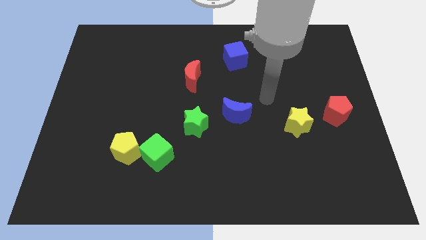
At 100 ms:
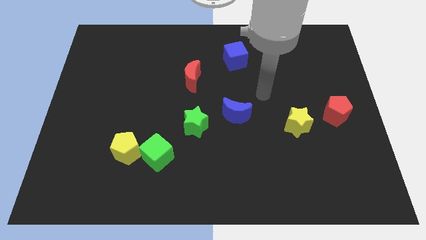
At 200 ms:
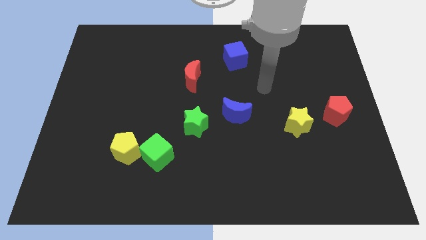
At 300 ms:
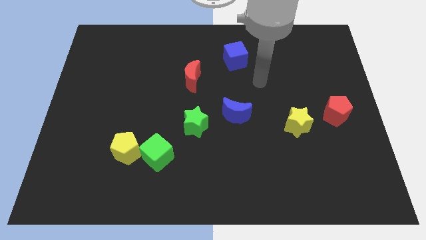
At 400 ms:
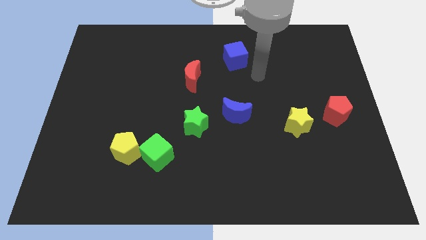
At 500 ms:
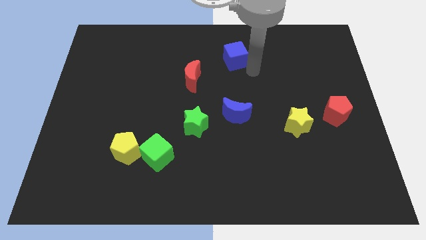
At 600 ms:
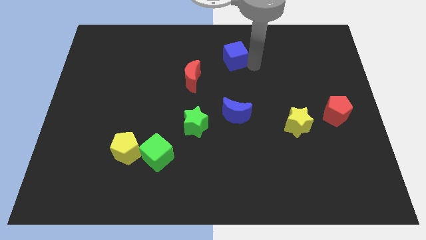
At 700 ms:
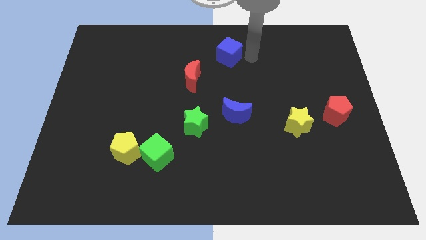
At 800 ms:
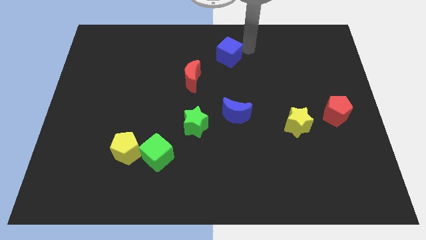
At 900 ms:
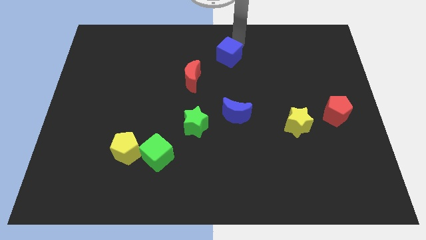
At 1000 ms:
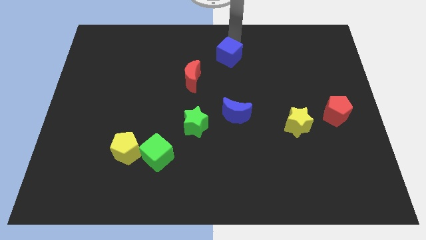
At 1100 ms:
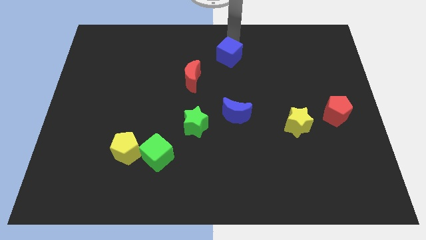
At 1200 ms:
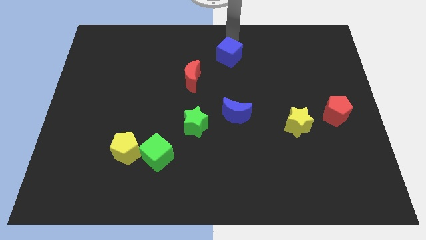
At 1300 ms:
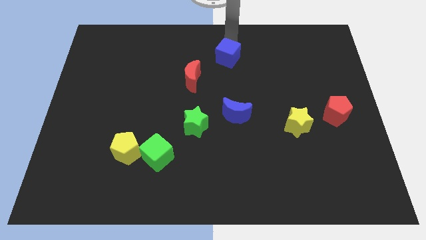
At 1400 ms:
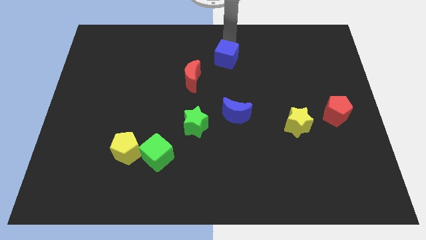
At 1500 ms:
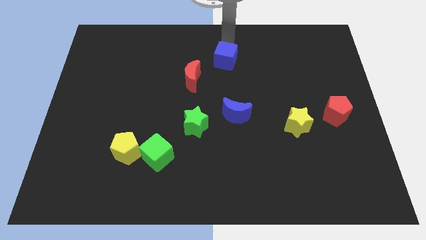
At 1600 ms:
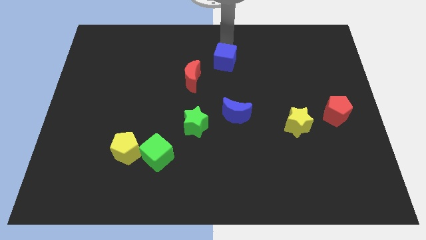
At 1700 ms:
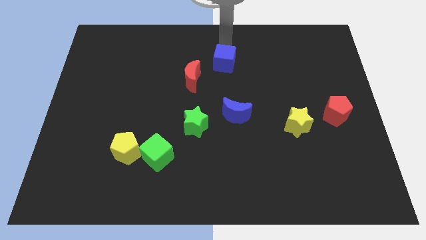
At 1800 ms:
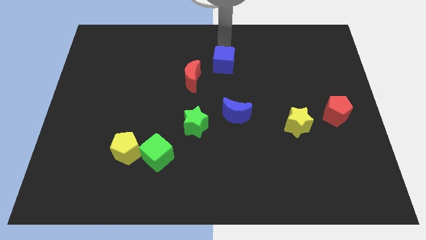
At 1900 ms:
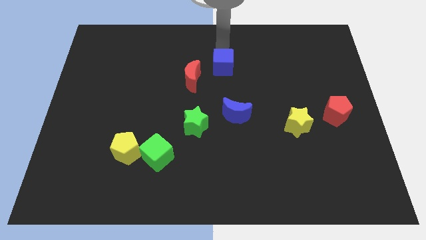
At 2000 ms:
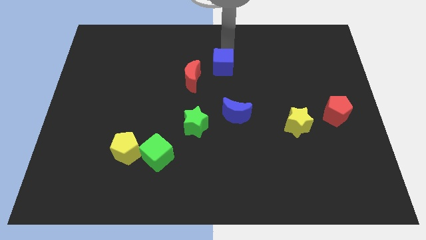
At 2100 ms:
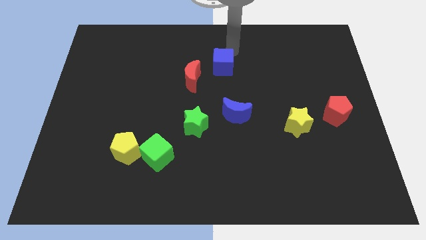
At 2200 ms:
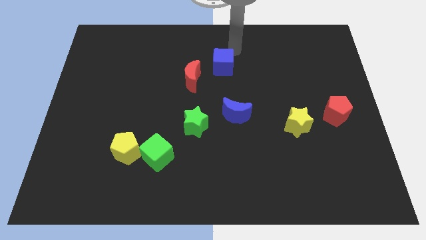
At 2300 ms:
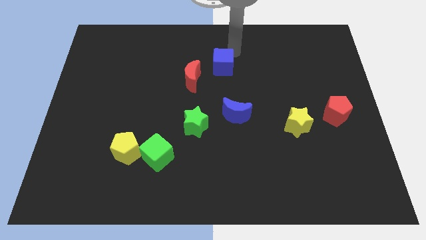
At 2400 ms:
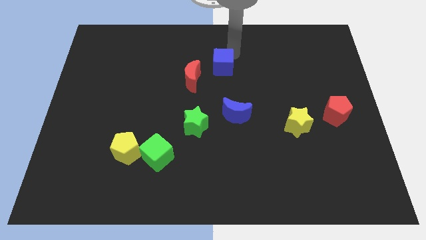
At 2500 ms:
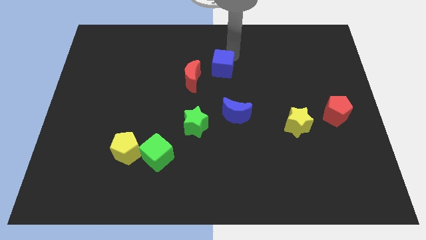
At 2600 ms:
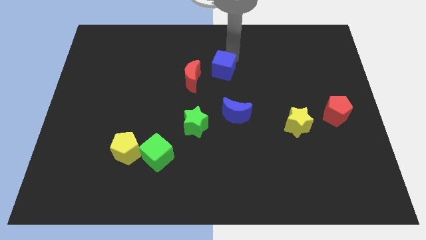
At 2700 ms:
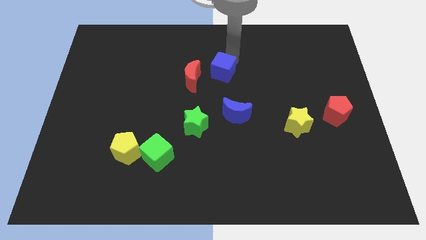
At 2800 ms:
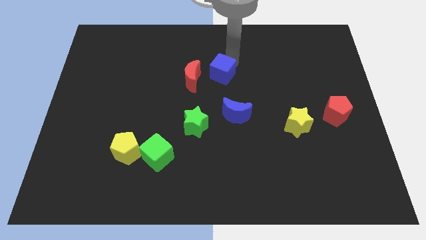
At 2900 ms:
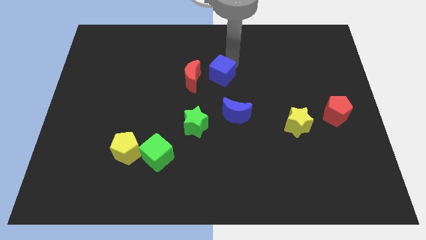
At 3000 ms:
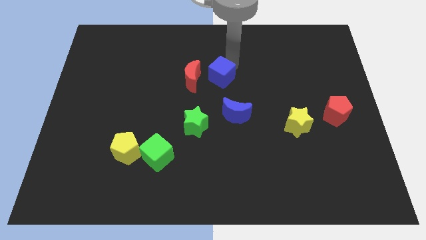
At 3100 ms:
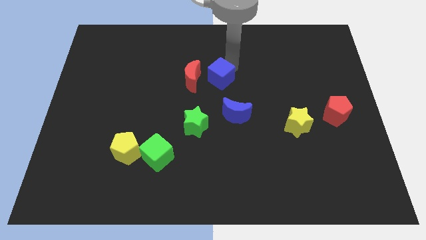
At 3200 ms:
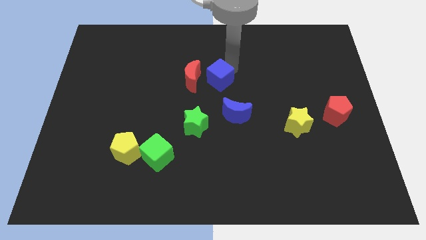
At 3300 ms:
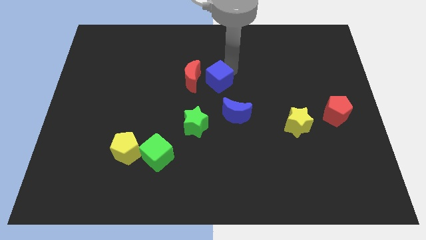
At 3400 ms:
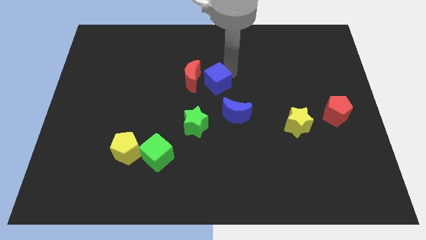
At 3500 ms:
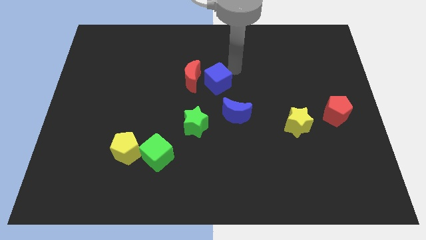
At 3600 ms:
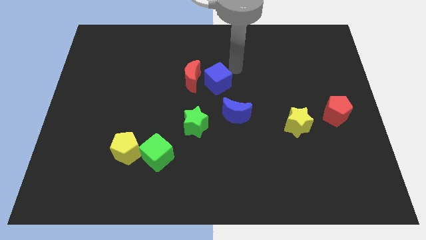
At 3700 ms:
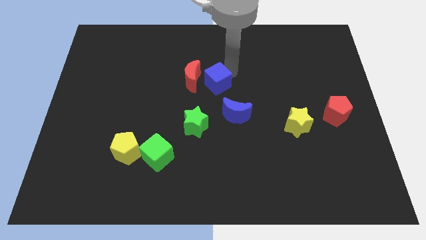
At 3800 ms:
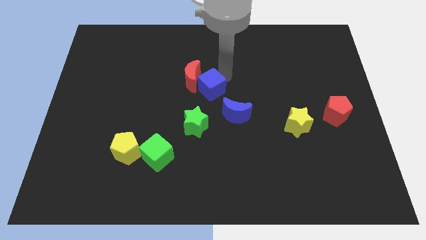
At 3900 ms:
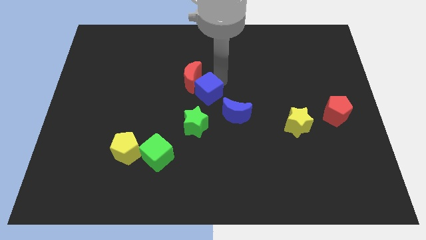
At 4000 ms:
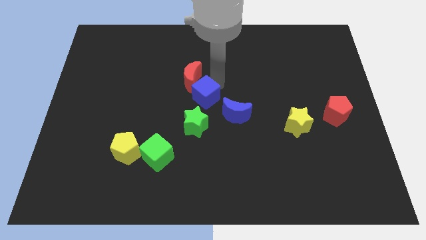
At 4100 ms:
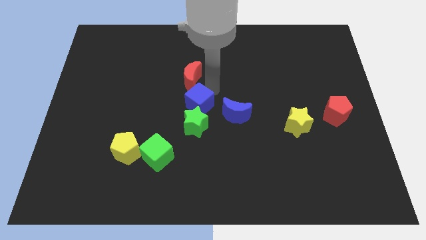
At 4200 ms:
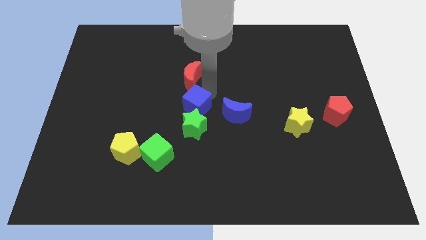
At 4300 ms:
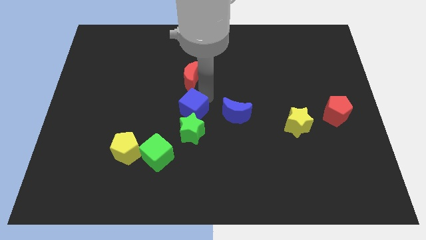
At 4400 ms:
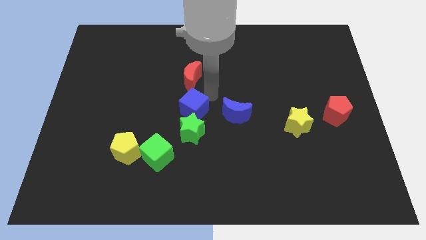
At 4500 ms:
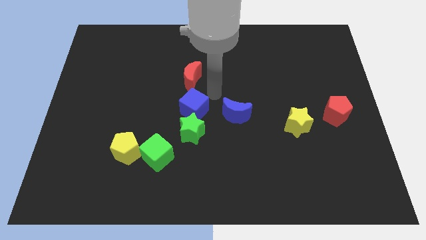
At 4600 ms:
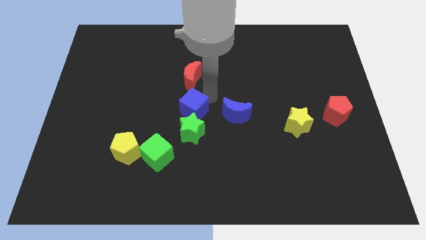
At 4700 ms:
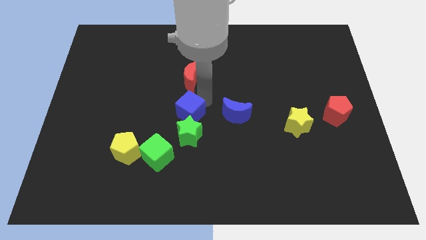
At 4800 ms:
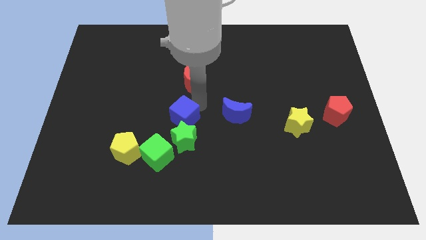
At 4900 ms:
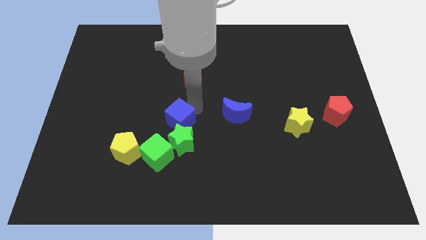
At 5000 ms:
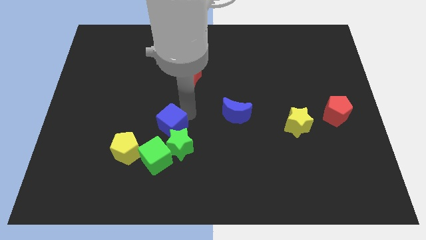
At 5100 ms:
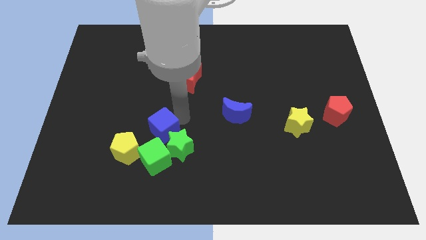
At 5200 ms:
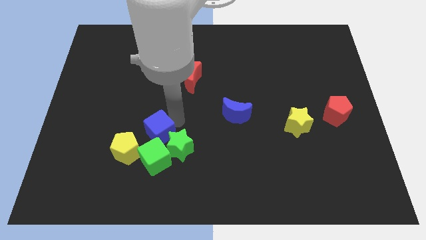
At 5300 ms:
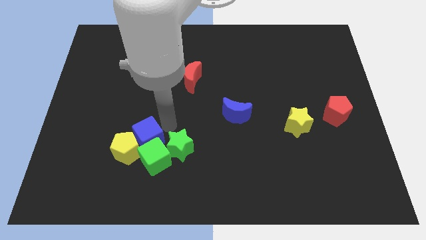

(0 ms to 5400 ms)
slide the blue cube next to the yellow pentagon

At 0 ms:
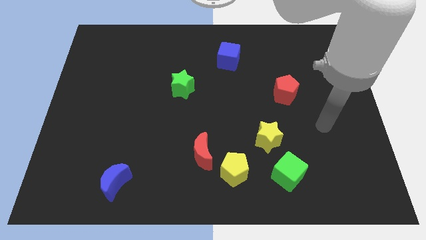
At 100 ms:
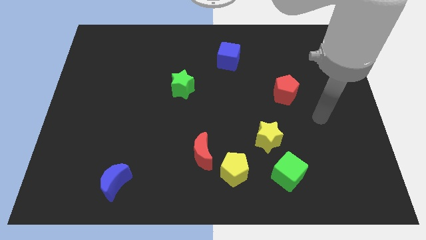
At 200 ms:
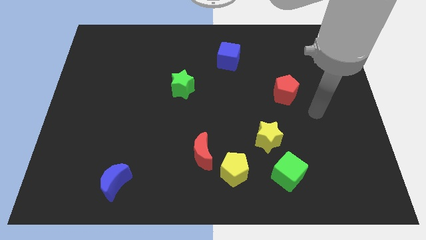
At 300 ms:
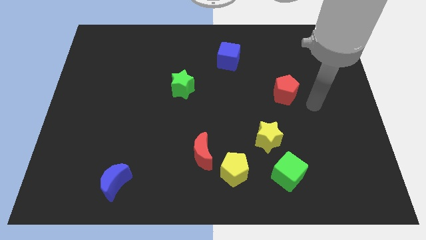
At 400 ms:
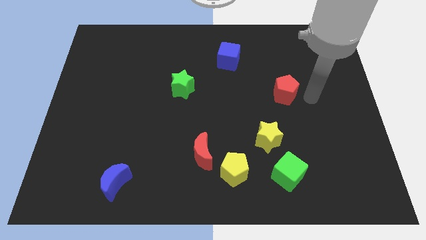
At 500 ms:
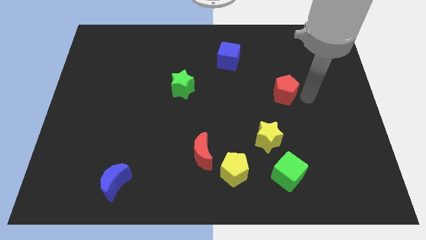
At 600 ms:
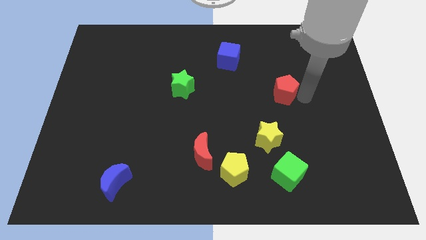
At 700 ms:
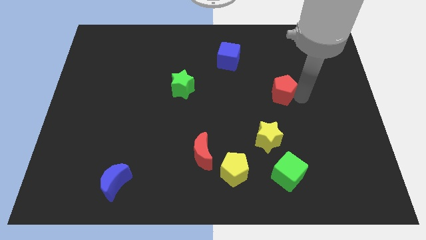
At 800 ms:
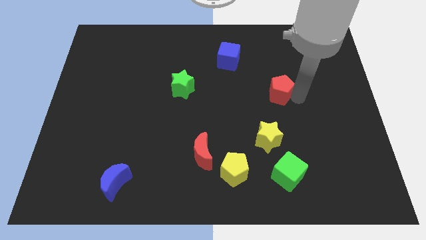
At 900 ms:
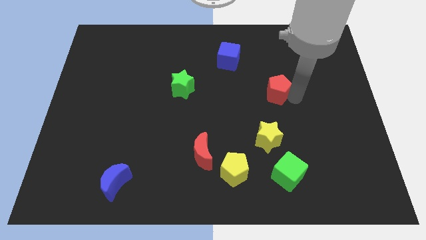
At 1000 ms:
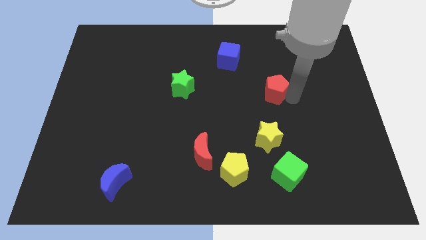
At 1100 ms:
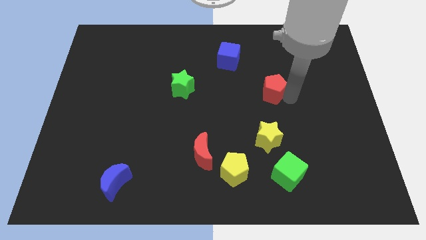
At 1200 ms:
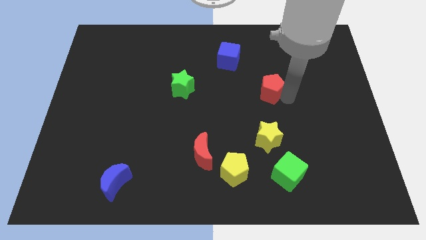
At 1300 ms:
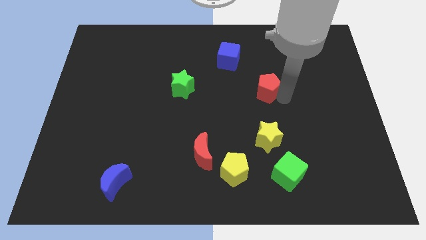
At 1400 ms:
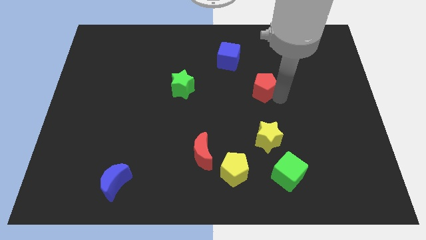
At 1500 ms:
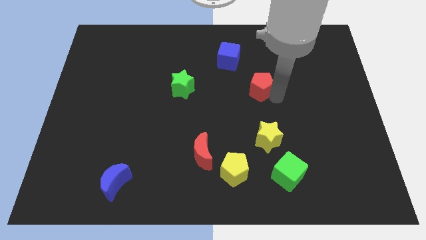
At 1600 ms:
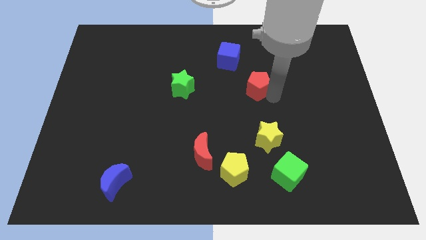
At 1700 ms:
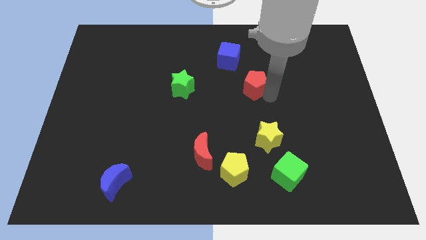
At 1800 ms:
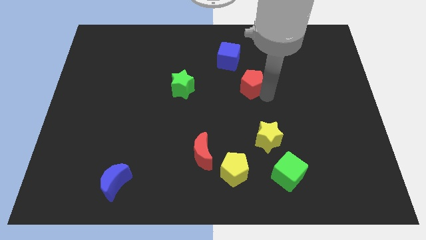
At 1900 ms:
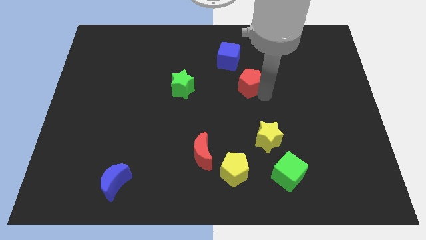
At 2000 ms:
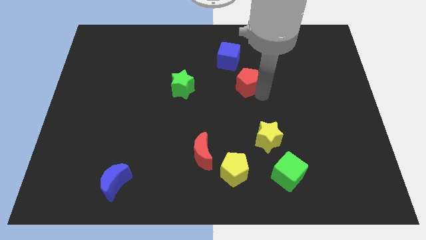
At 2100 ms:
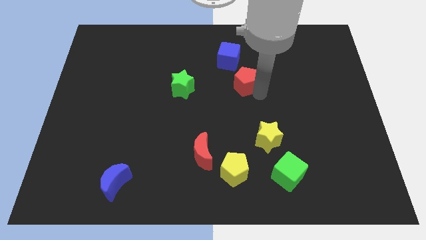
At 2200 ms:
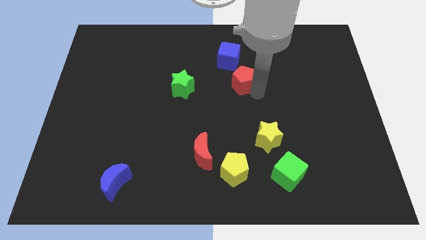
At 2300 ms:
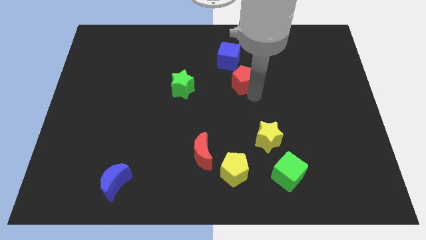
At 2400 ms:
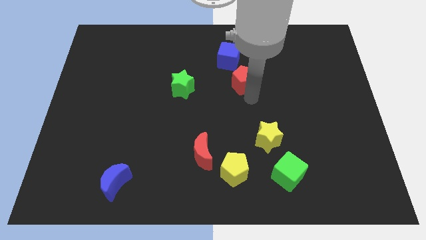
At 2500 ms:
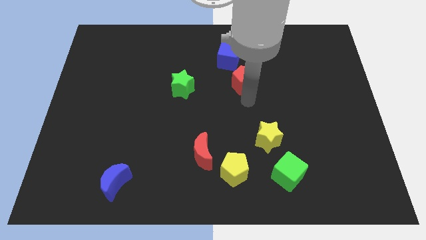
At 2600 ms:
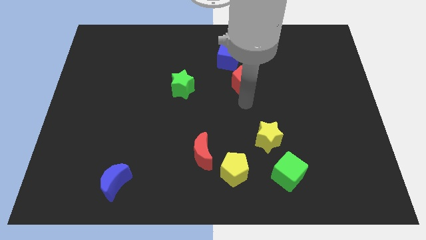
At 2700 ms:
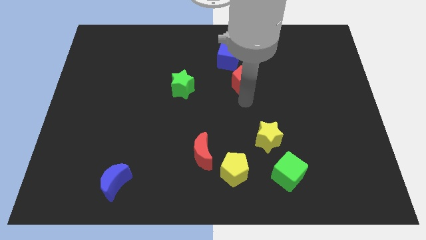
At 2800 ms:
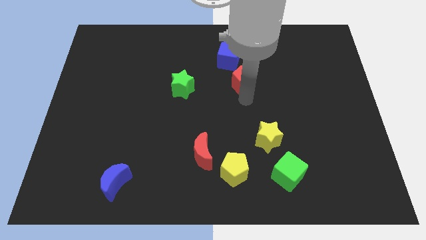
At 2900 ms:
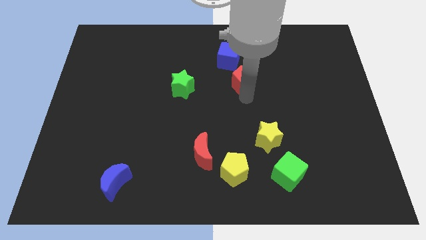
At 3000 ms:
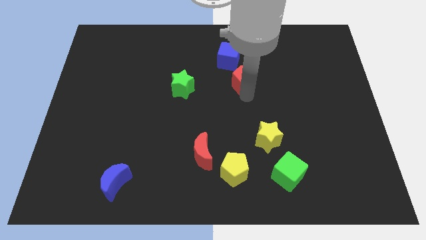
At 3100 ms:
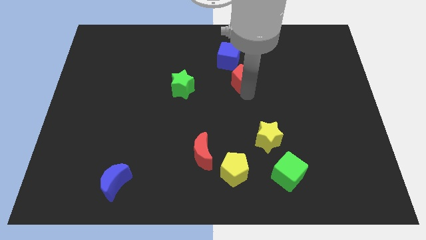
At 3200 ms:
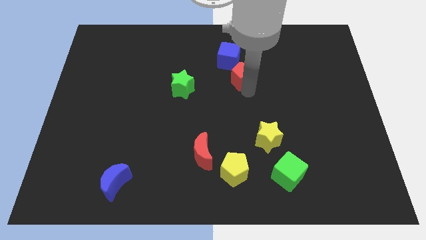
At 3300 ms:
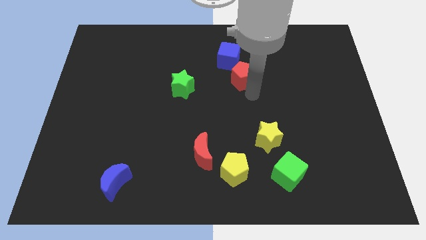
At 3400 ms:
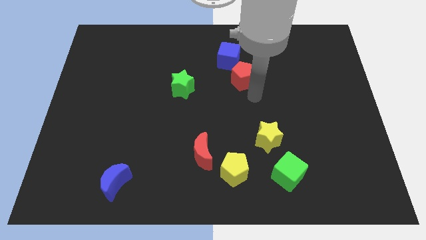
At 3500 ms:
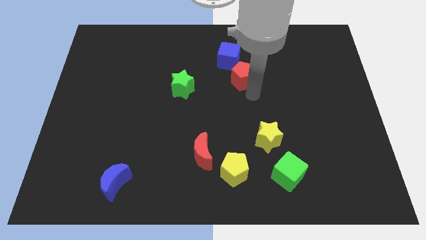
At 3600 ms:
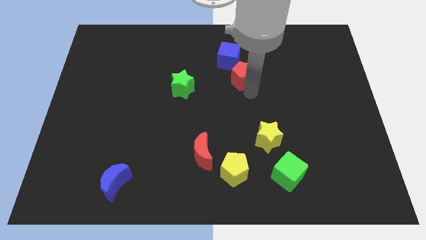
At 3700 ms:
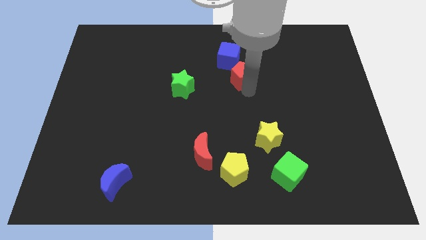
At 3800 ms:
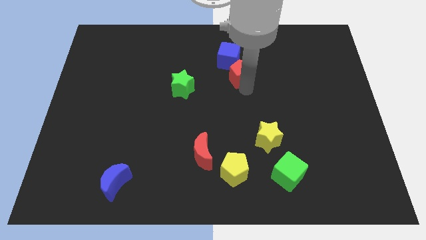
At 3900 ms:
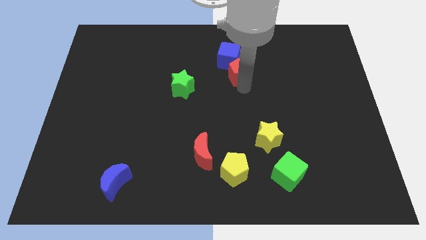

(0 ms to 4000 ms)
put the red pentagon towards the blue cube
